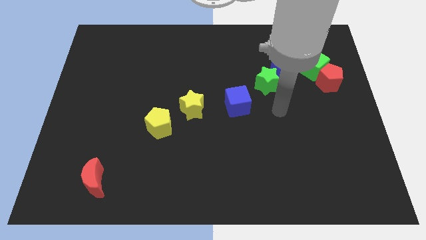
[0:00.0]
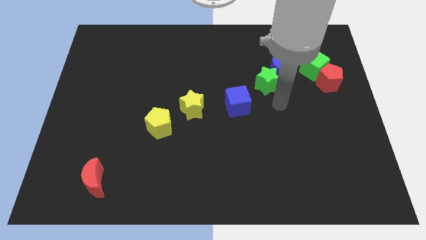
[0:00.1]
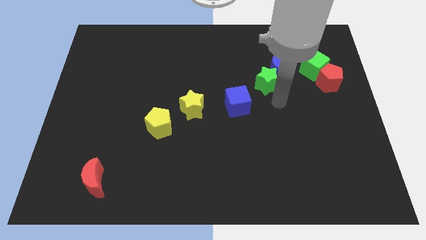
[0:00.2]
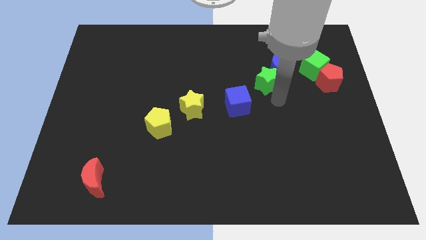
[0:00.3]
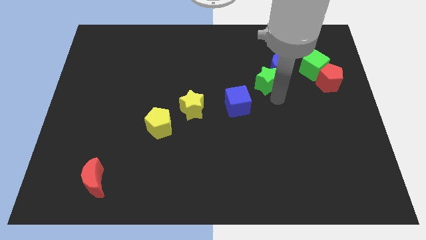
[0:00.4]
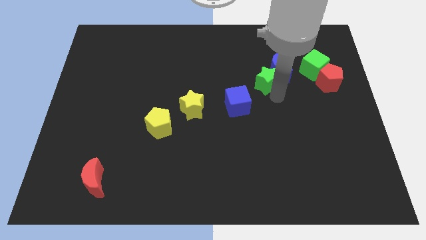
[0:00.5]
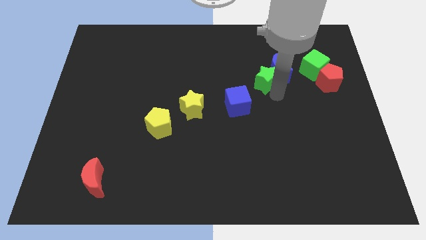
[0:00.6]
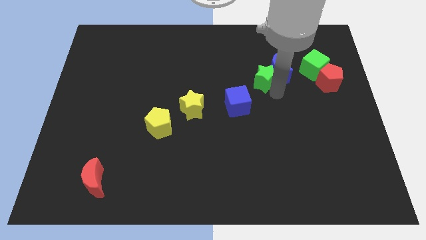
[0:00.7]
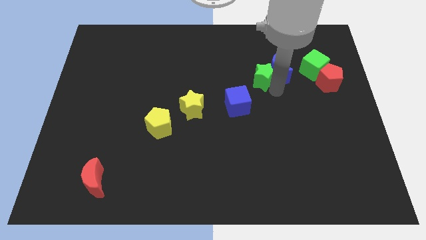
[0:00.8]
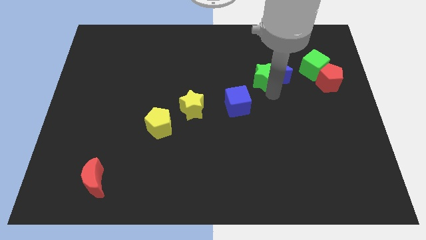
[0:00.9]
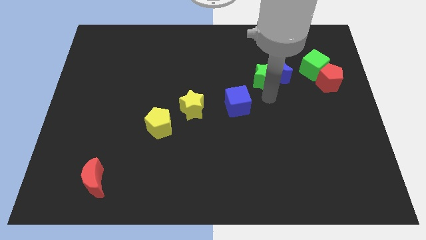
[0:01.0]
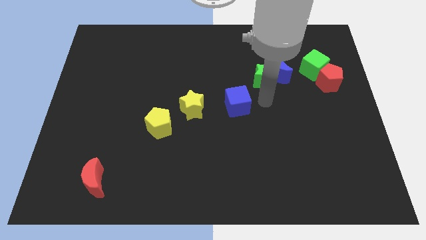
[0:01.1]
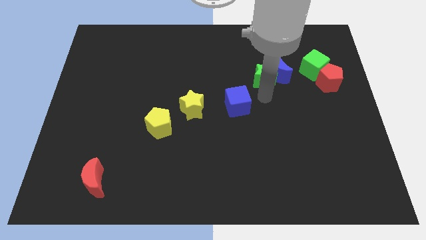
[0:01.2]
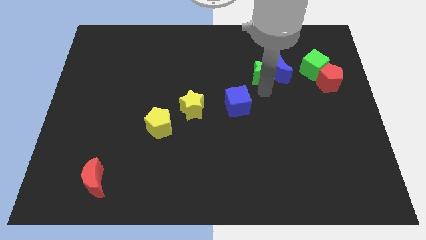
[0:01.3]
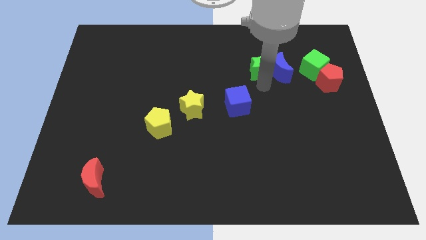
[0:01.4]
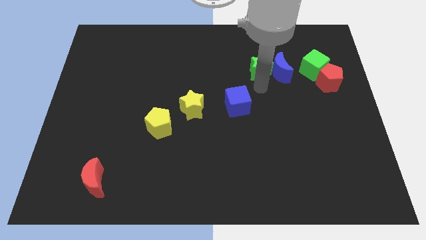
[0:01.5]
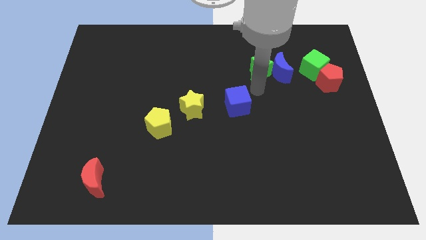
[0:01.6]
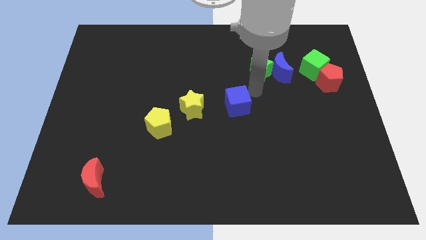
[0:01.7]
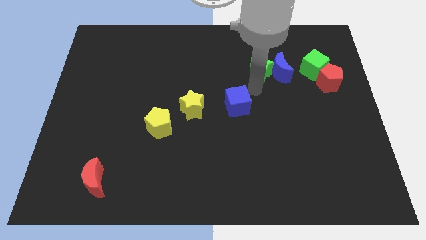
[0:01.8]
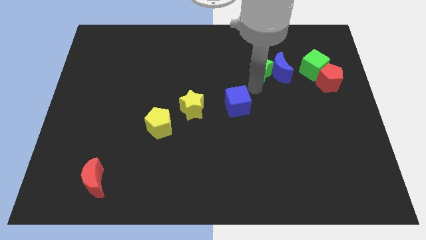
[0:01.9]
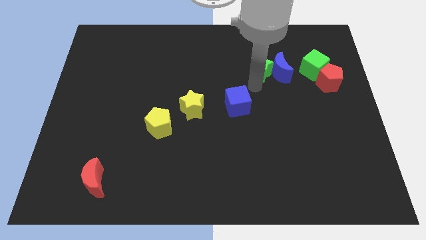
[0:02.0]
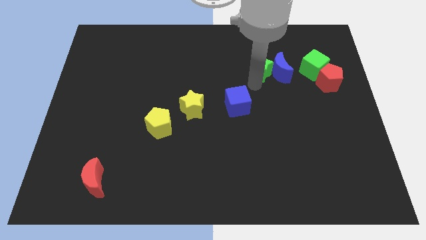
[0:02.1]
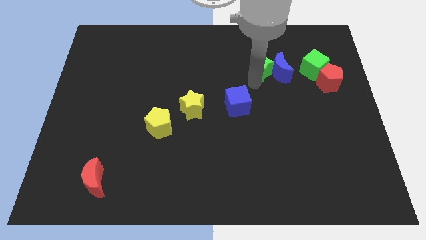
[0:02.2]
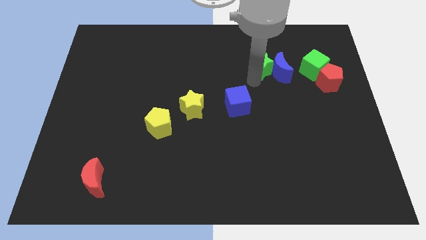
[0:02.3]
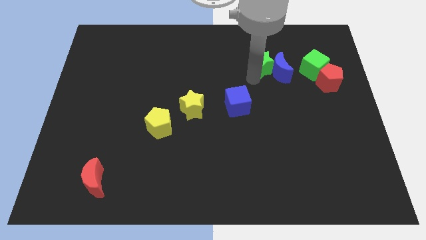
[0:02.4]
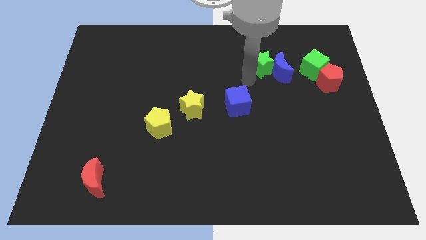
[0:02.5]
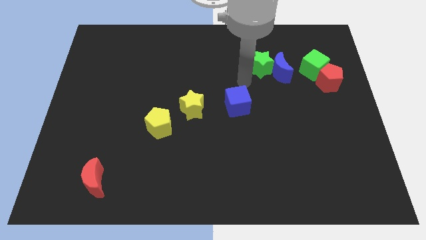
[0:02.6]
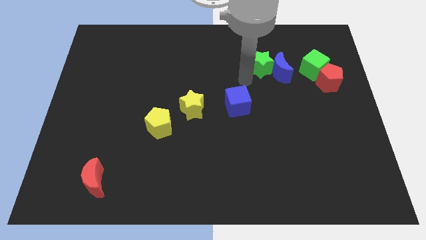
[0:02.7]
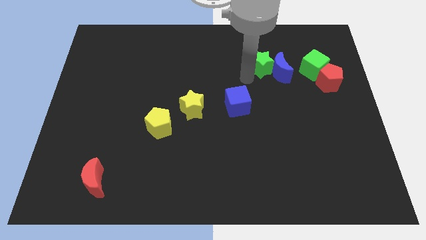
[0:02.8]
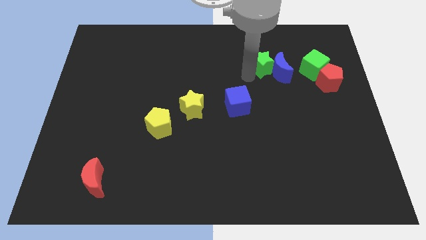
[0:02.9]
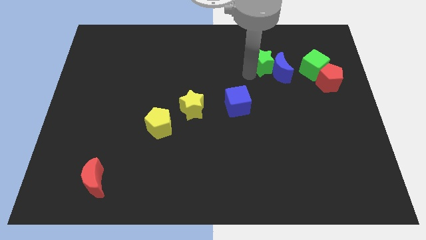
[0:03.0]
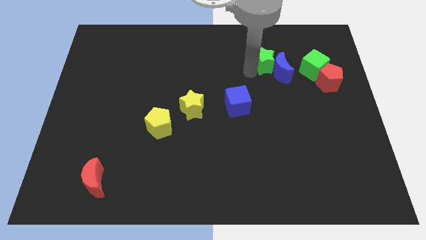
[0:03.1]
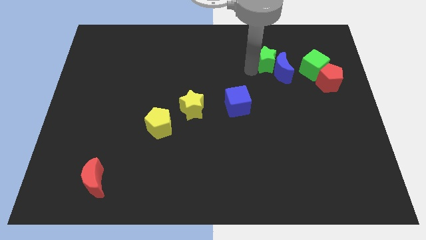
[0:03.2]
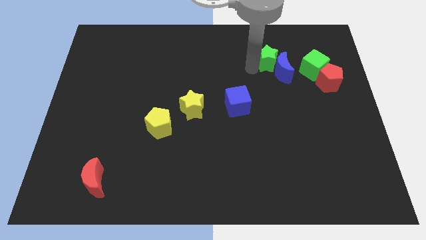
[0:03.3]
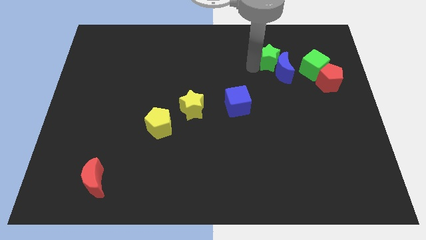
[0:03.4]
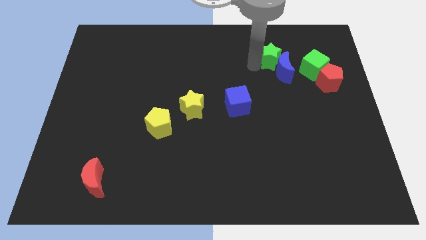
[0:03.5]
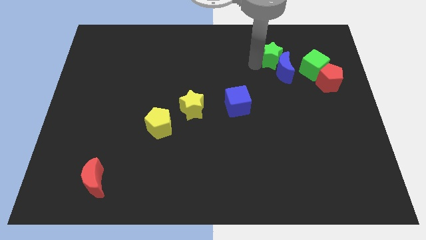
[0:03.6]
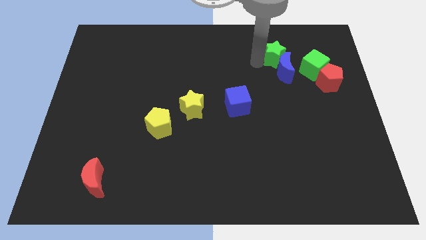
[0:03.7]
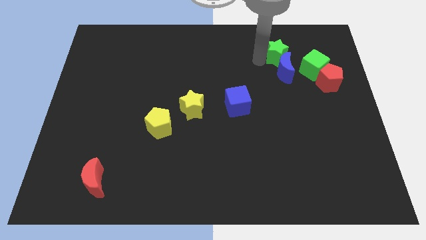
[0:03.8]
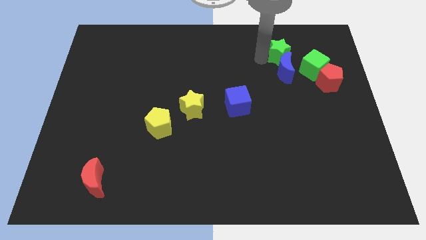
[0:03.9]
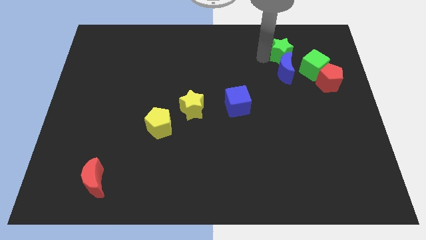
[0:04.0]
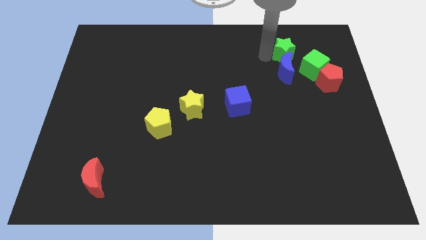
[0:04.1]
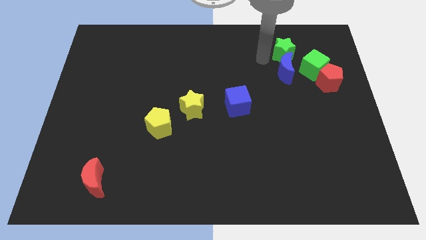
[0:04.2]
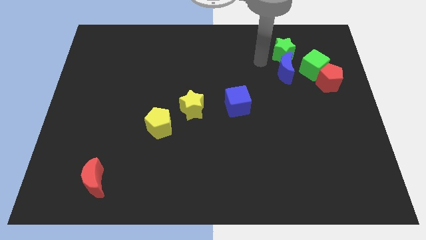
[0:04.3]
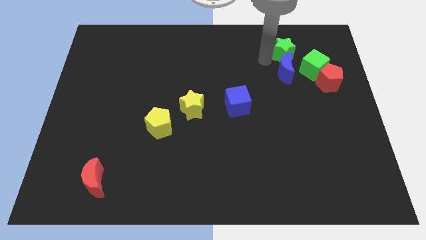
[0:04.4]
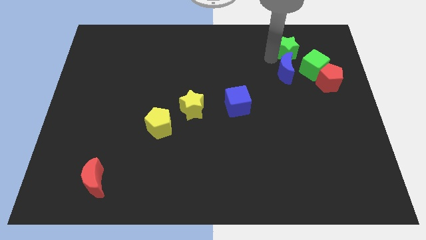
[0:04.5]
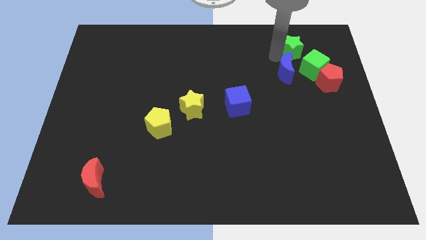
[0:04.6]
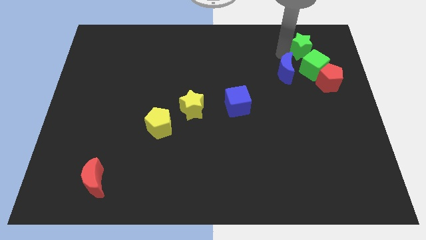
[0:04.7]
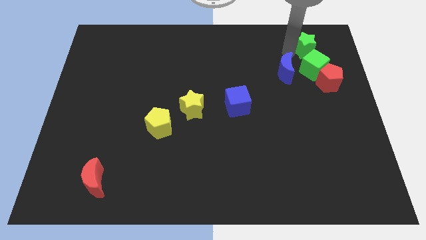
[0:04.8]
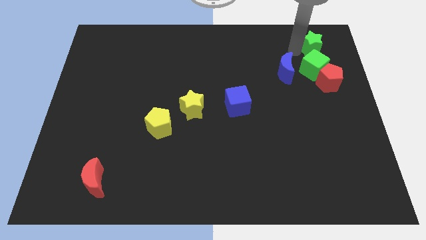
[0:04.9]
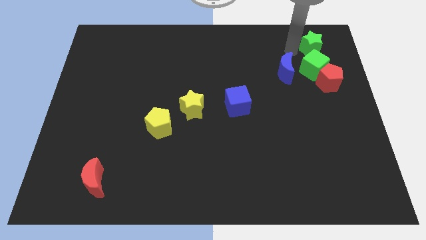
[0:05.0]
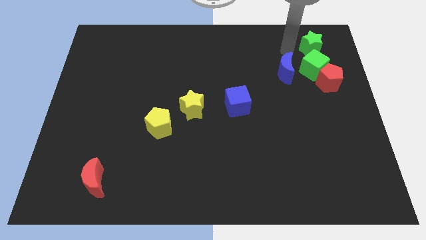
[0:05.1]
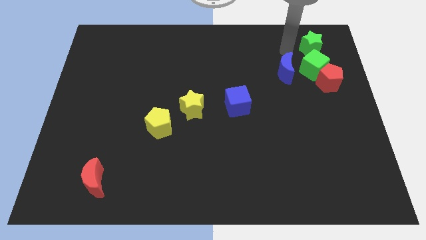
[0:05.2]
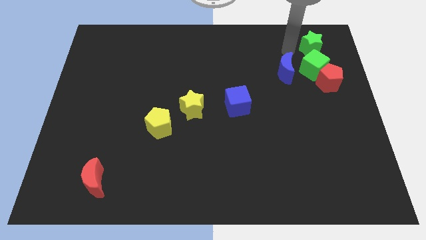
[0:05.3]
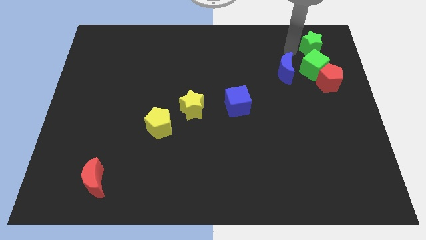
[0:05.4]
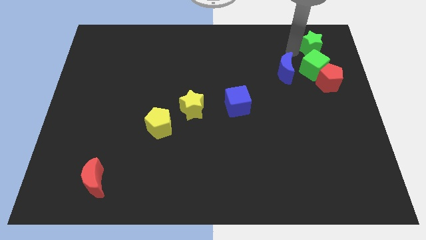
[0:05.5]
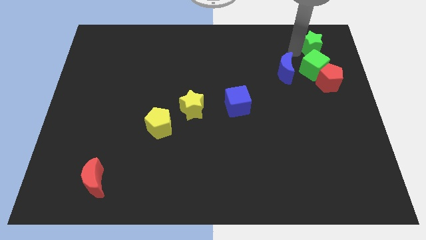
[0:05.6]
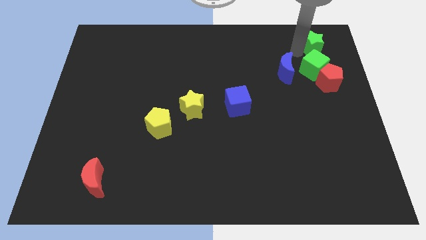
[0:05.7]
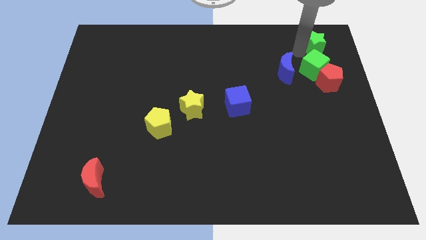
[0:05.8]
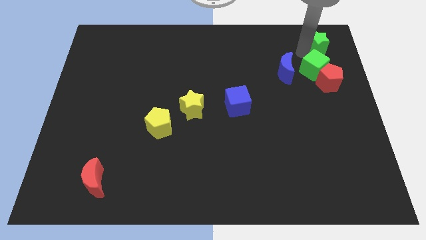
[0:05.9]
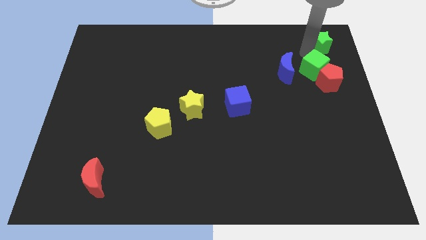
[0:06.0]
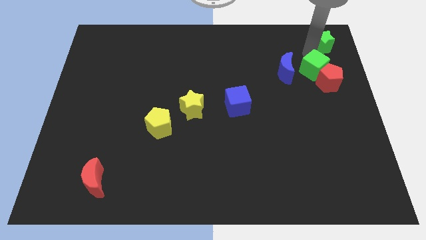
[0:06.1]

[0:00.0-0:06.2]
push the green star to the upper right corner

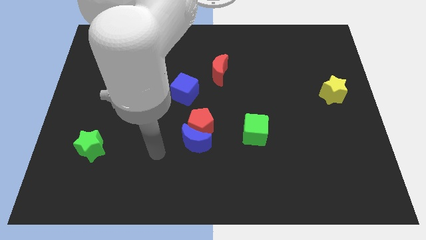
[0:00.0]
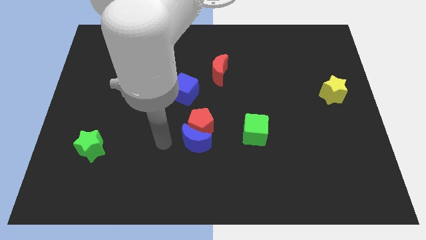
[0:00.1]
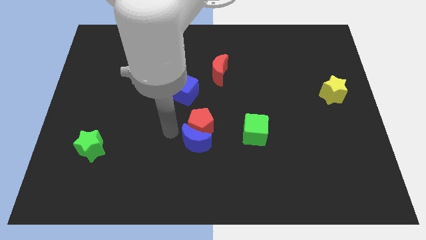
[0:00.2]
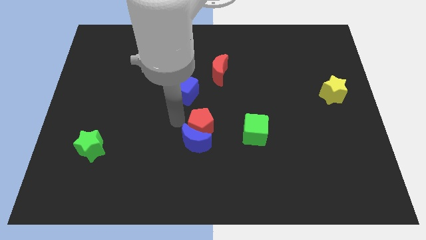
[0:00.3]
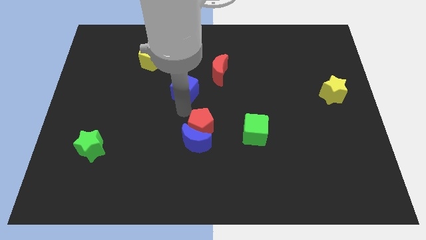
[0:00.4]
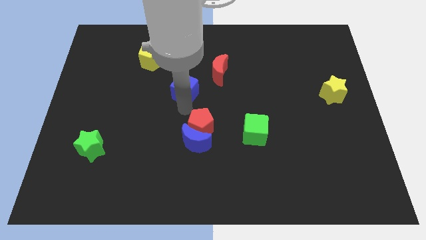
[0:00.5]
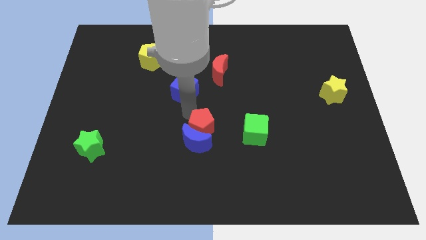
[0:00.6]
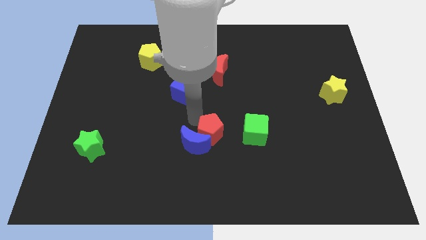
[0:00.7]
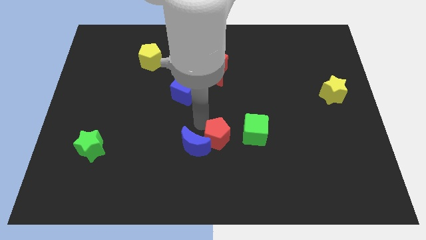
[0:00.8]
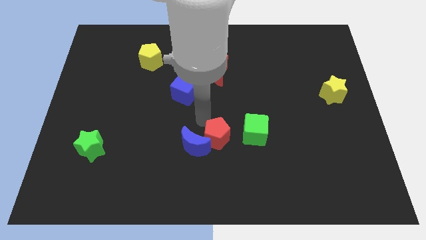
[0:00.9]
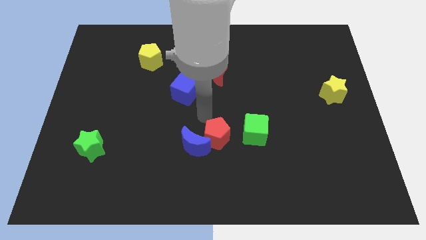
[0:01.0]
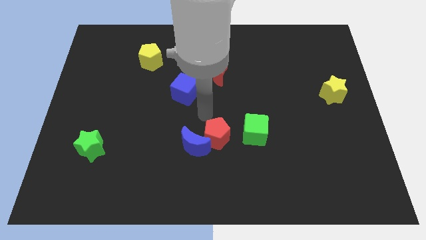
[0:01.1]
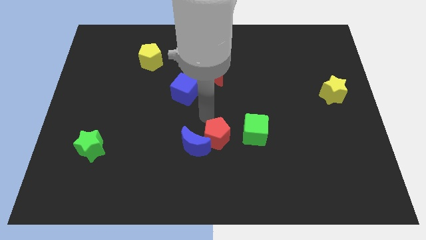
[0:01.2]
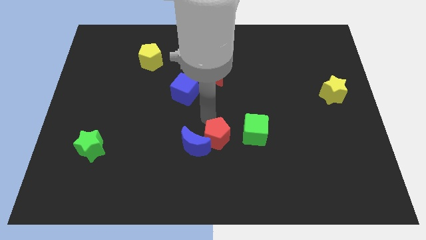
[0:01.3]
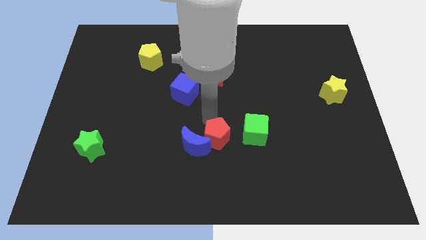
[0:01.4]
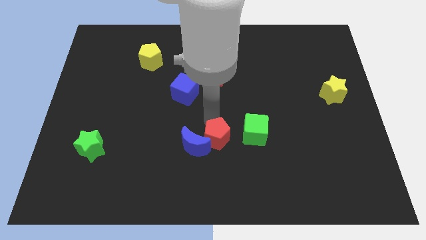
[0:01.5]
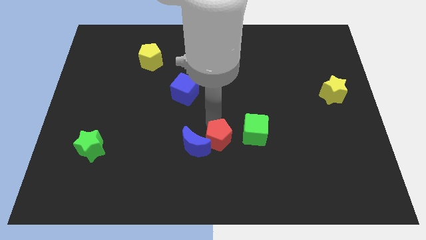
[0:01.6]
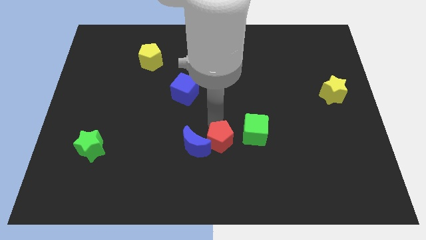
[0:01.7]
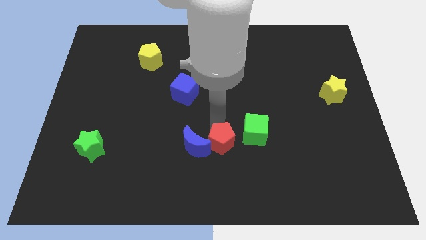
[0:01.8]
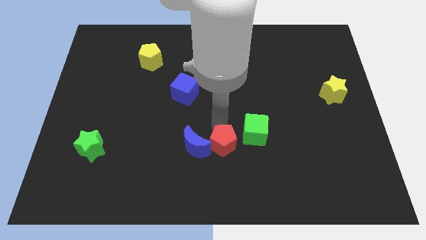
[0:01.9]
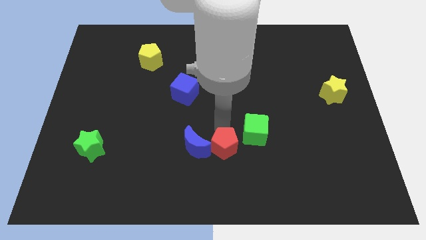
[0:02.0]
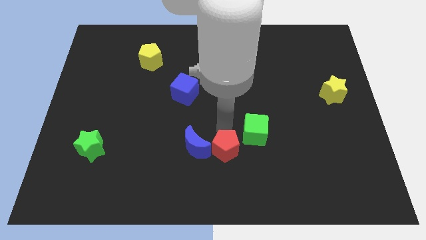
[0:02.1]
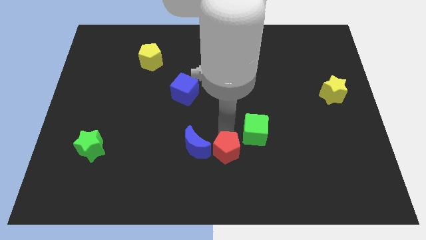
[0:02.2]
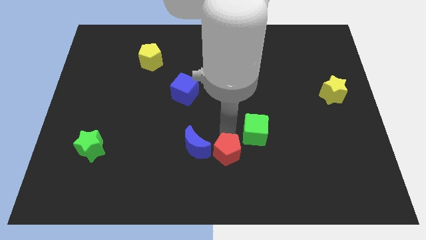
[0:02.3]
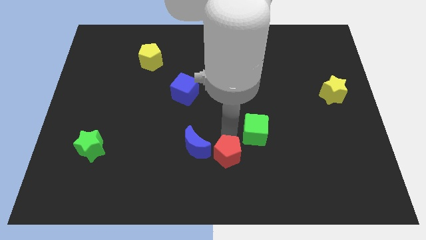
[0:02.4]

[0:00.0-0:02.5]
slide the red pentagon to the bottom side
